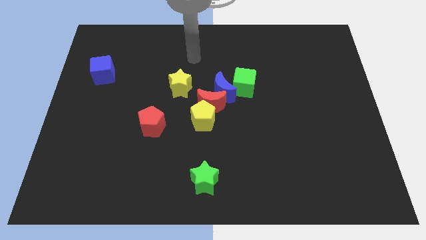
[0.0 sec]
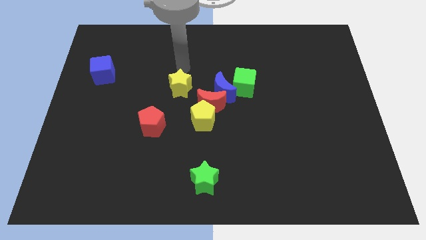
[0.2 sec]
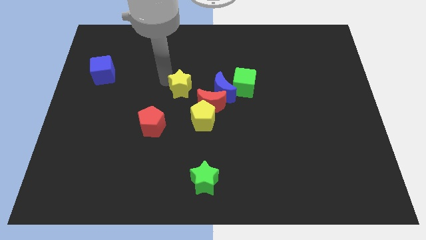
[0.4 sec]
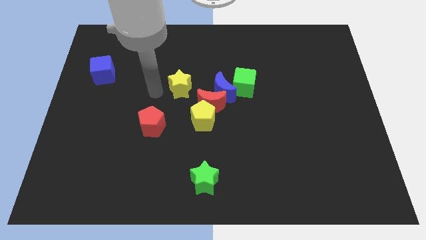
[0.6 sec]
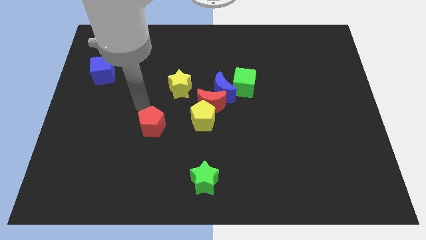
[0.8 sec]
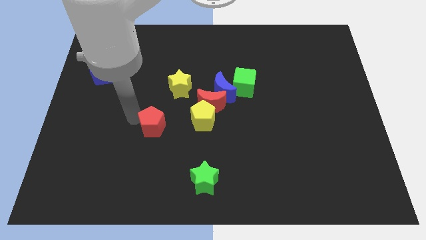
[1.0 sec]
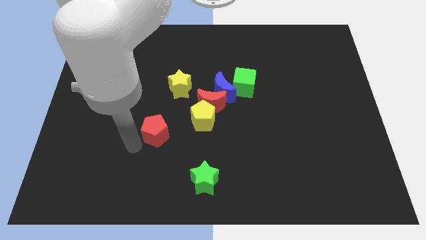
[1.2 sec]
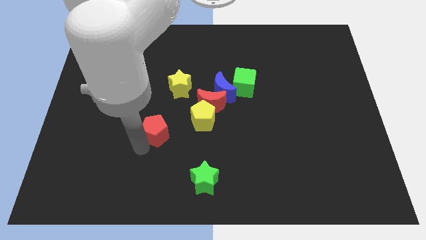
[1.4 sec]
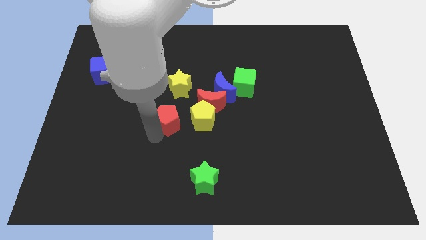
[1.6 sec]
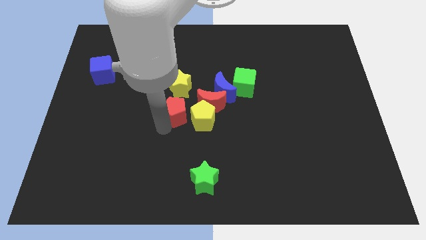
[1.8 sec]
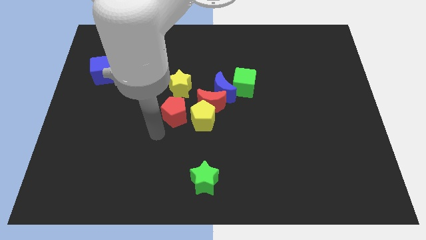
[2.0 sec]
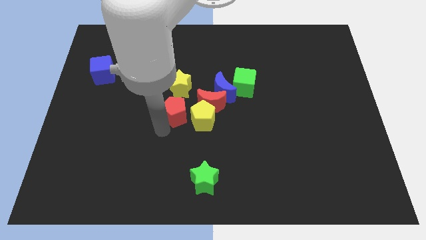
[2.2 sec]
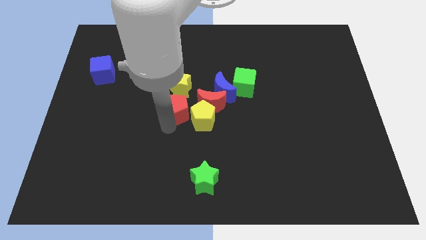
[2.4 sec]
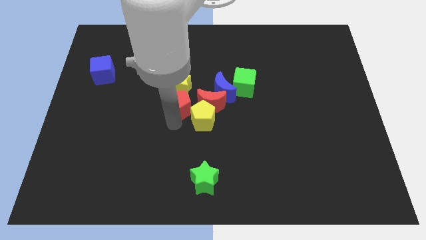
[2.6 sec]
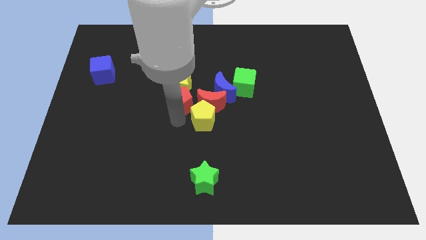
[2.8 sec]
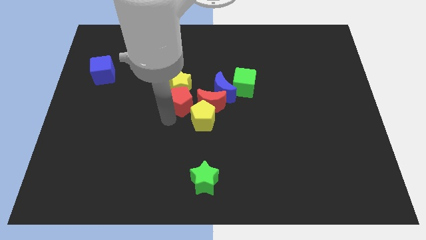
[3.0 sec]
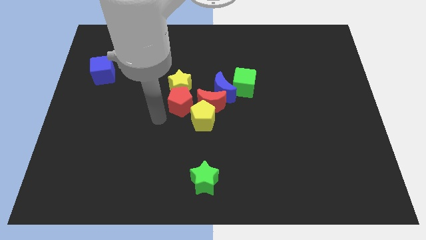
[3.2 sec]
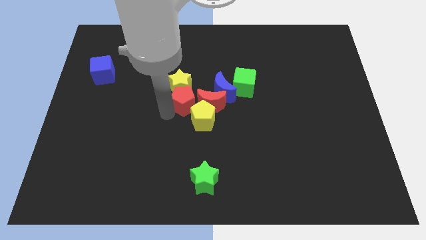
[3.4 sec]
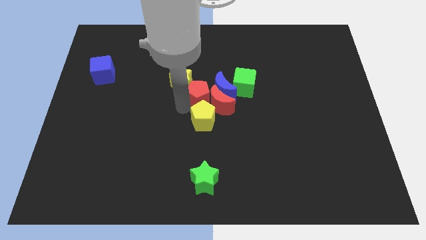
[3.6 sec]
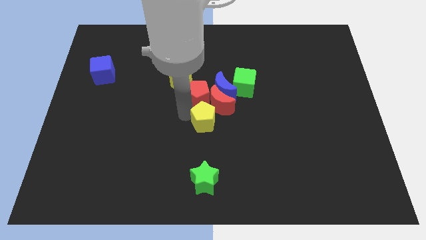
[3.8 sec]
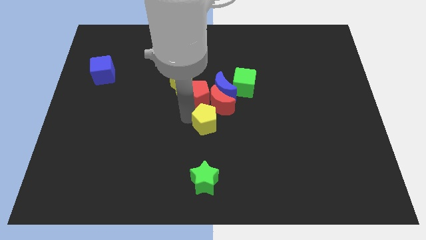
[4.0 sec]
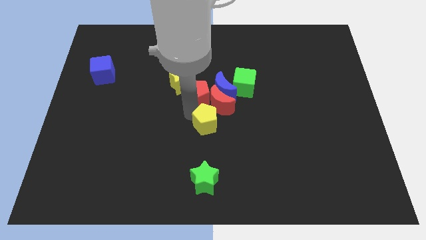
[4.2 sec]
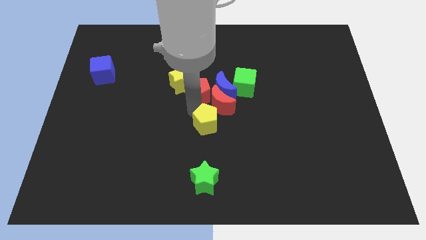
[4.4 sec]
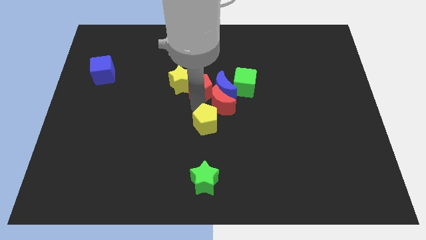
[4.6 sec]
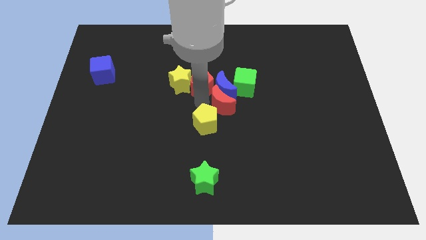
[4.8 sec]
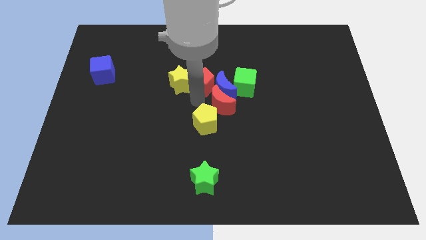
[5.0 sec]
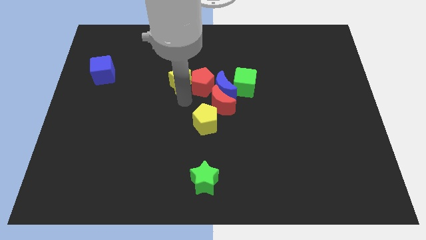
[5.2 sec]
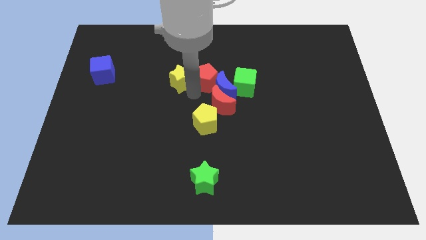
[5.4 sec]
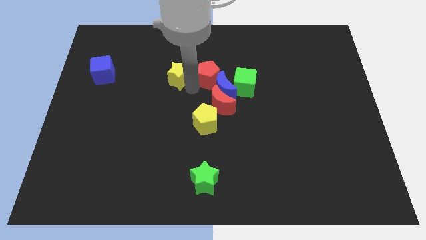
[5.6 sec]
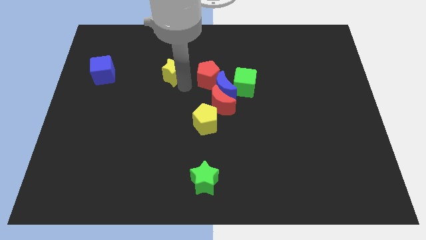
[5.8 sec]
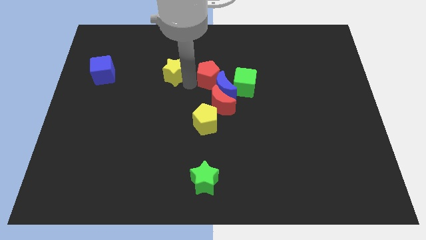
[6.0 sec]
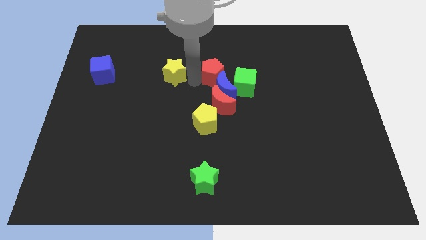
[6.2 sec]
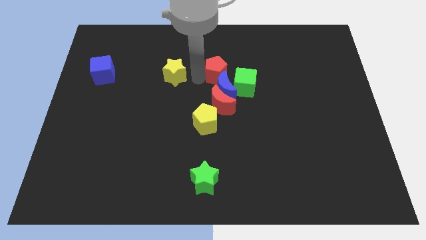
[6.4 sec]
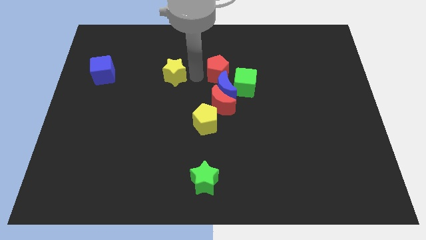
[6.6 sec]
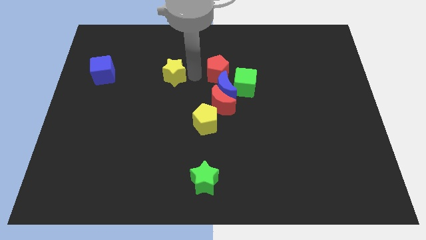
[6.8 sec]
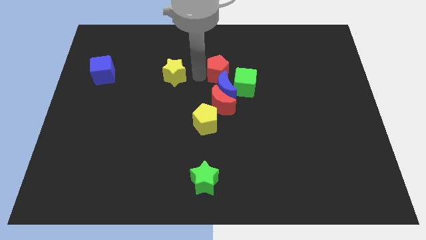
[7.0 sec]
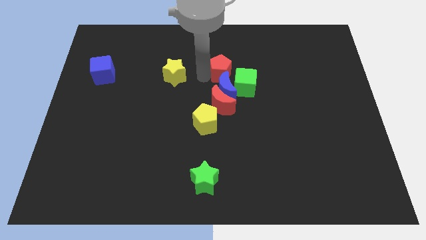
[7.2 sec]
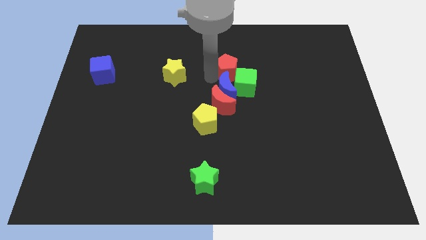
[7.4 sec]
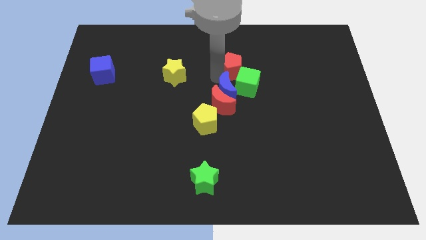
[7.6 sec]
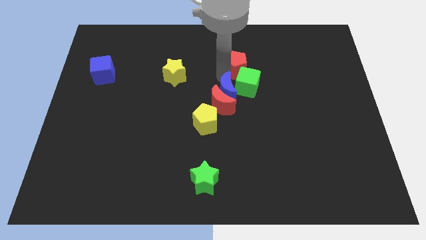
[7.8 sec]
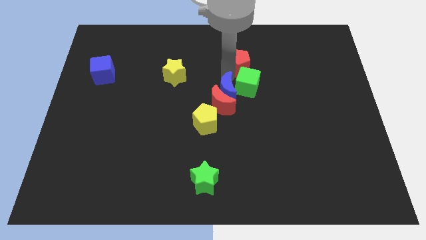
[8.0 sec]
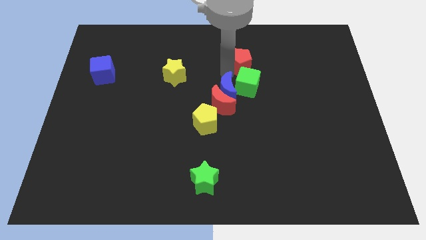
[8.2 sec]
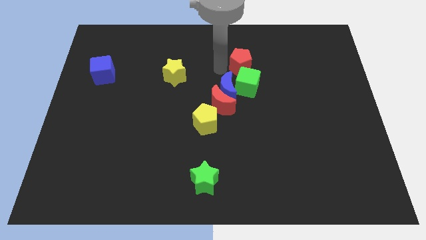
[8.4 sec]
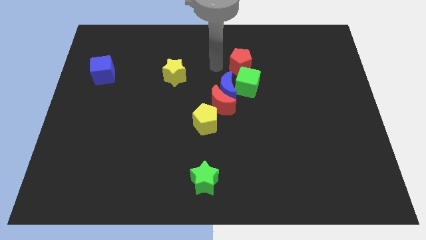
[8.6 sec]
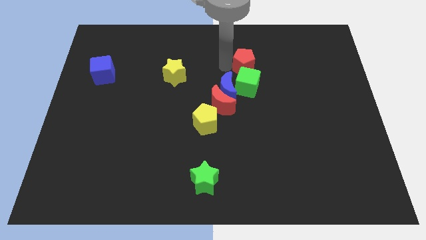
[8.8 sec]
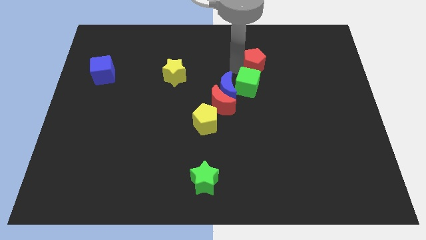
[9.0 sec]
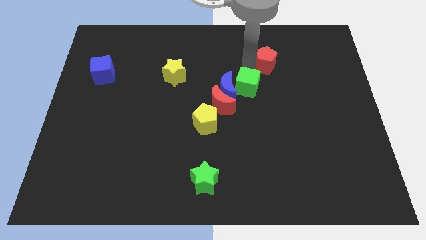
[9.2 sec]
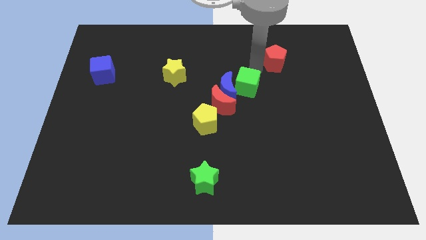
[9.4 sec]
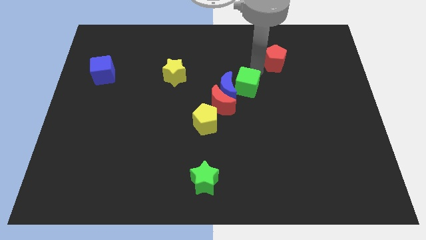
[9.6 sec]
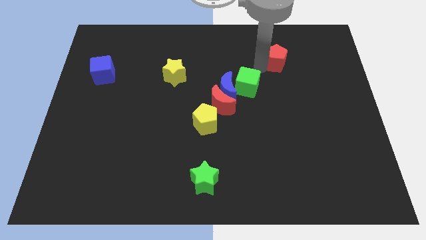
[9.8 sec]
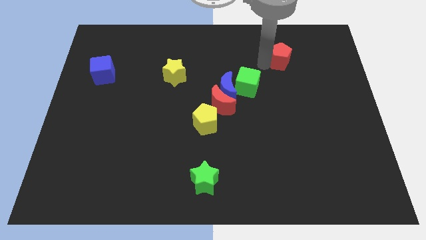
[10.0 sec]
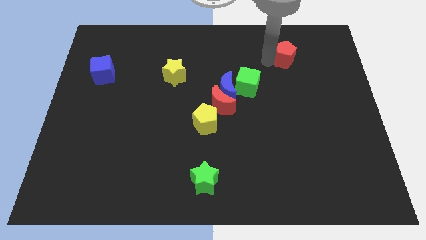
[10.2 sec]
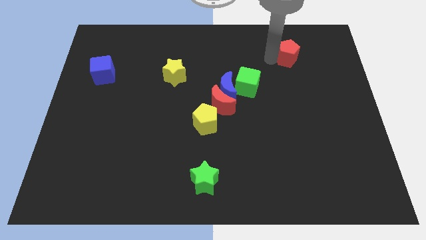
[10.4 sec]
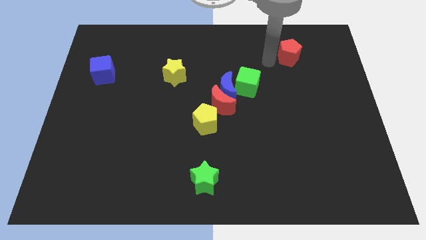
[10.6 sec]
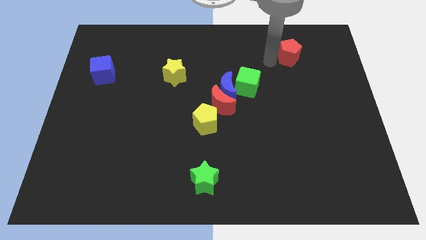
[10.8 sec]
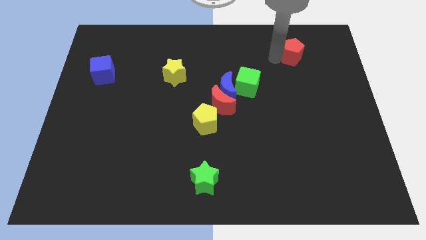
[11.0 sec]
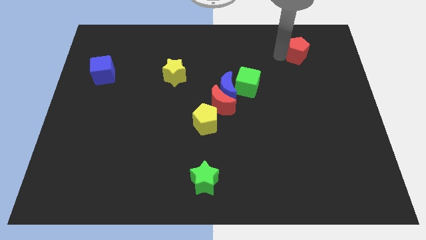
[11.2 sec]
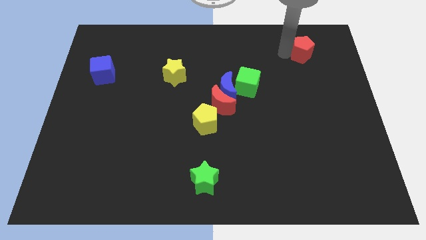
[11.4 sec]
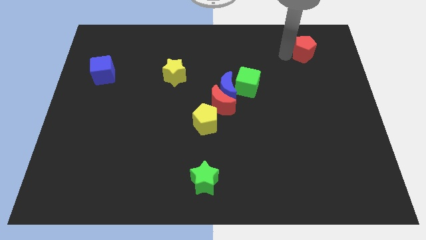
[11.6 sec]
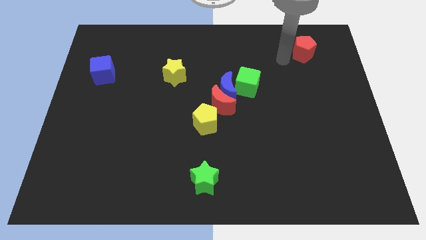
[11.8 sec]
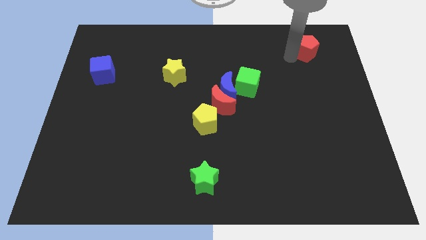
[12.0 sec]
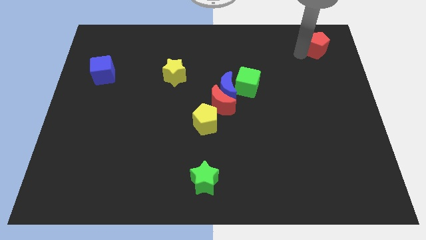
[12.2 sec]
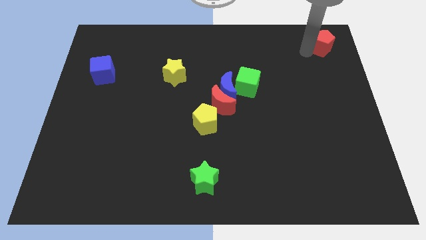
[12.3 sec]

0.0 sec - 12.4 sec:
slide the red pentagon to the top right of the board

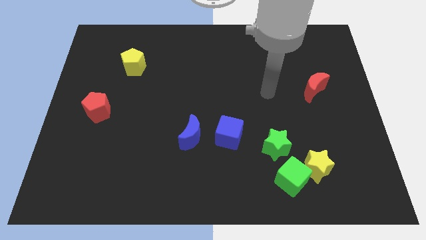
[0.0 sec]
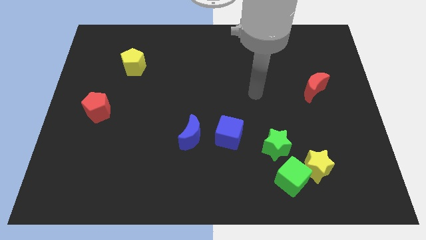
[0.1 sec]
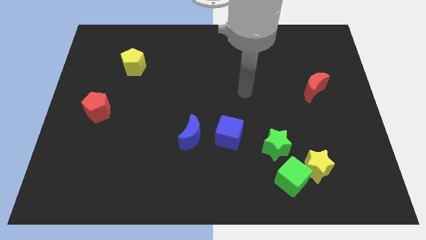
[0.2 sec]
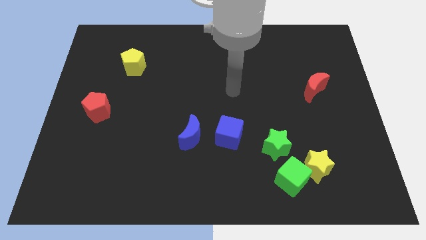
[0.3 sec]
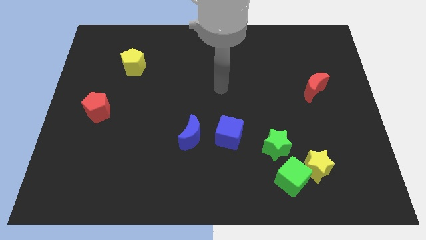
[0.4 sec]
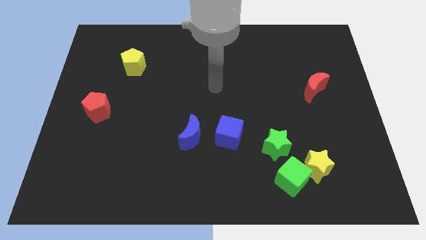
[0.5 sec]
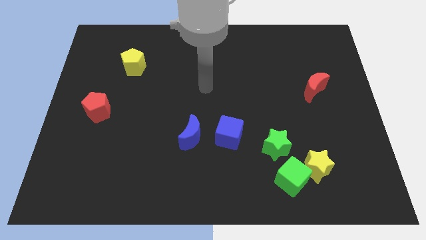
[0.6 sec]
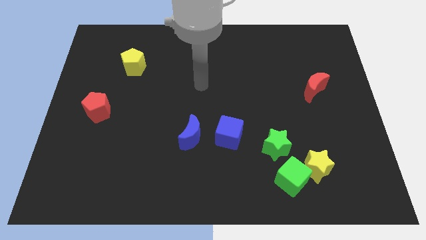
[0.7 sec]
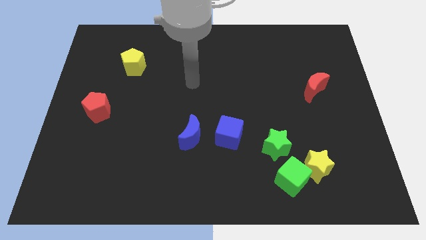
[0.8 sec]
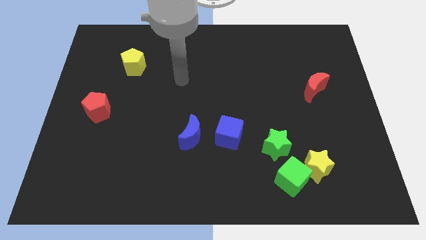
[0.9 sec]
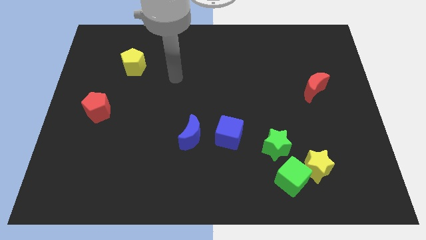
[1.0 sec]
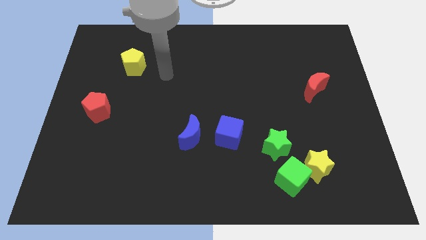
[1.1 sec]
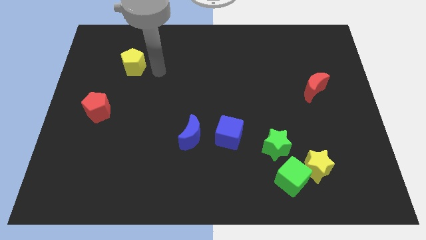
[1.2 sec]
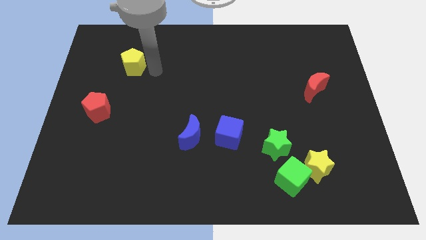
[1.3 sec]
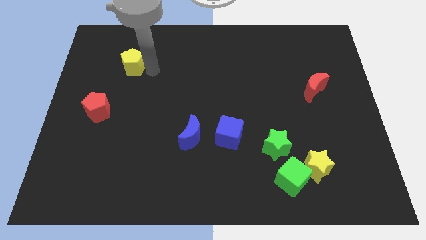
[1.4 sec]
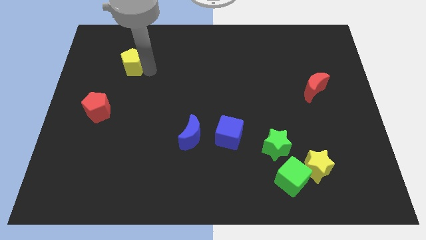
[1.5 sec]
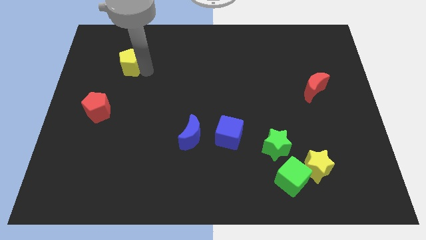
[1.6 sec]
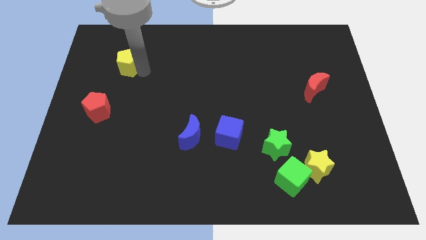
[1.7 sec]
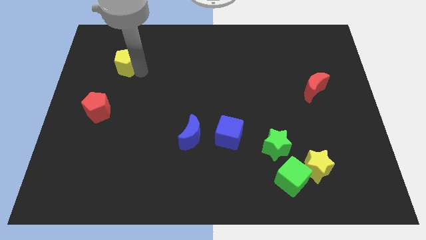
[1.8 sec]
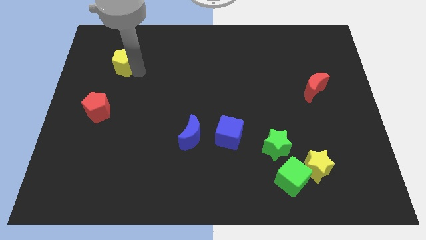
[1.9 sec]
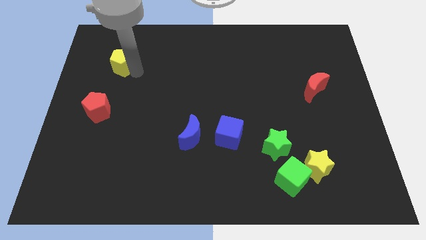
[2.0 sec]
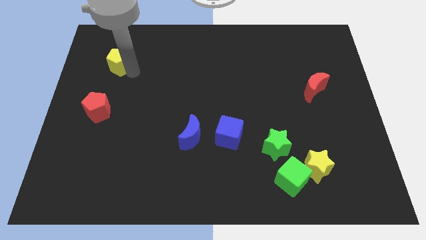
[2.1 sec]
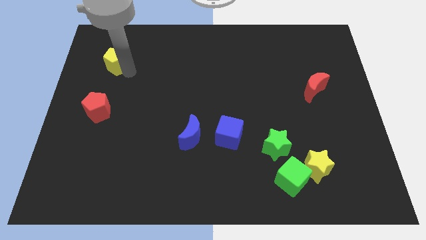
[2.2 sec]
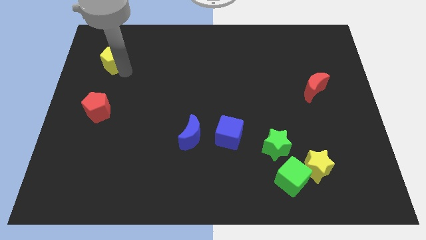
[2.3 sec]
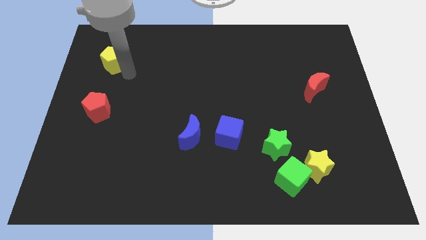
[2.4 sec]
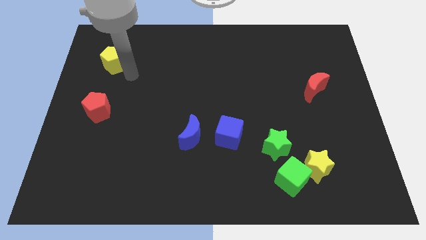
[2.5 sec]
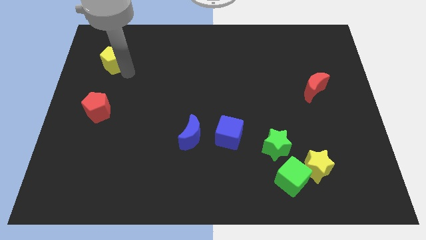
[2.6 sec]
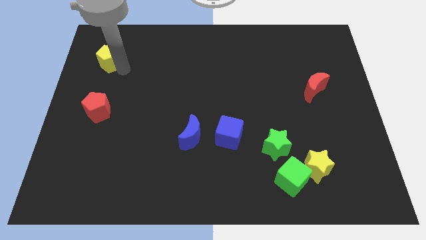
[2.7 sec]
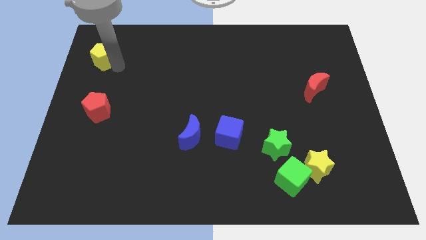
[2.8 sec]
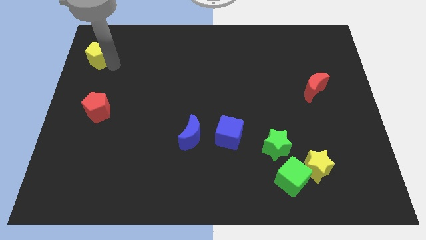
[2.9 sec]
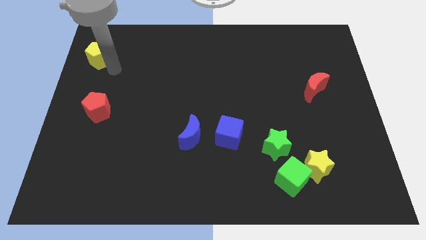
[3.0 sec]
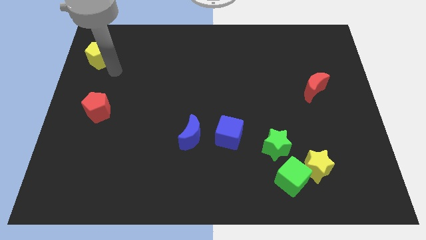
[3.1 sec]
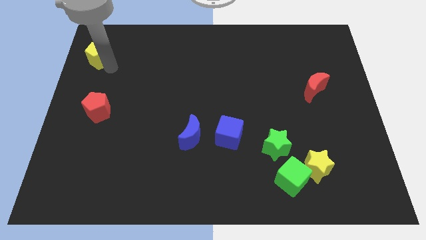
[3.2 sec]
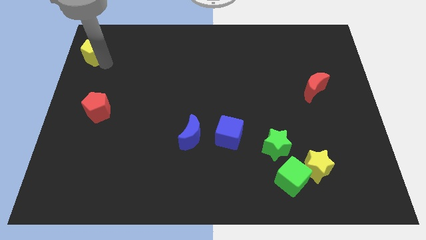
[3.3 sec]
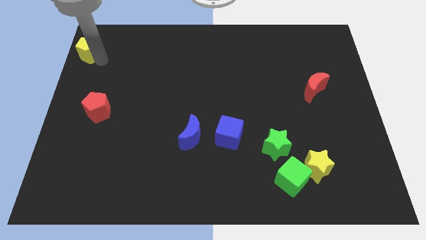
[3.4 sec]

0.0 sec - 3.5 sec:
put the yellow pentagon to the top left corner
